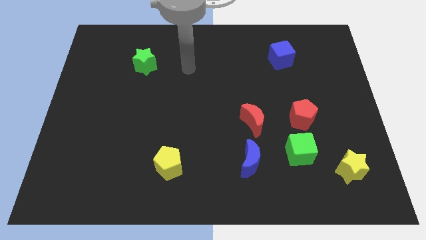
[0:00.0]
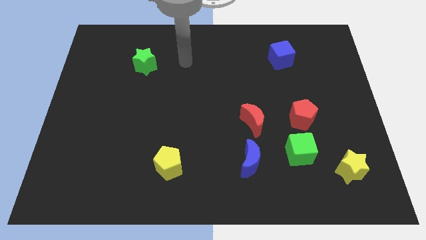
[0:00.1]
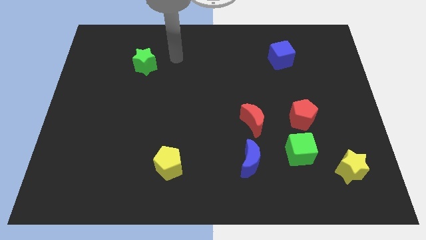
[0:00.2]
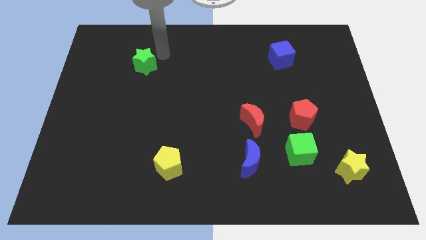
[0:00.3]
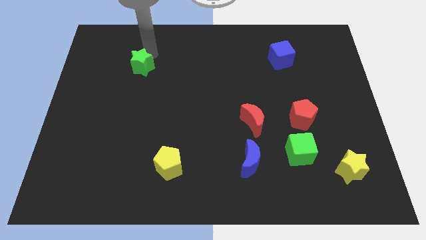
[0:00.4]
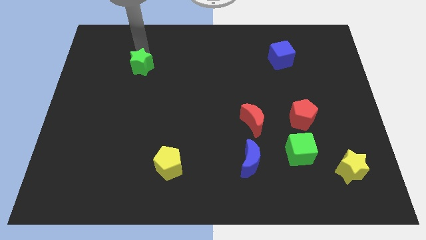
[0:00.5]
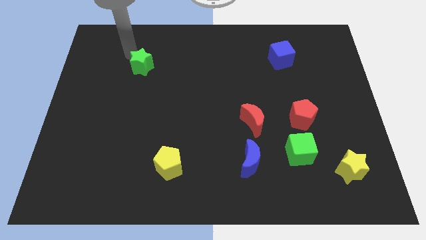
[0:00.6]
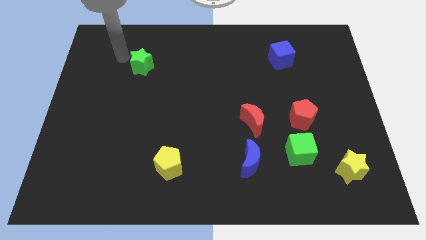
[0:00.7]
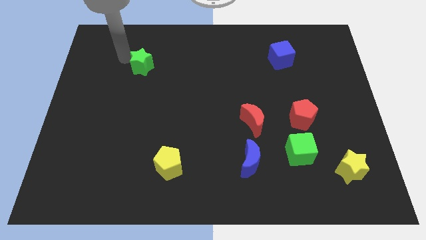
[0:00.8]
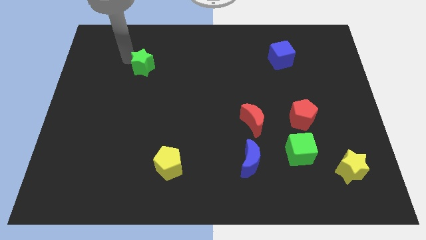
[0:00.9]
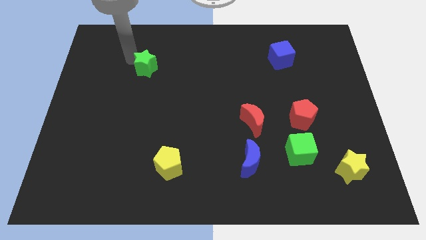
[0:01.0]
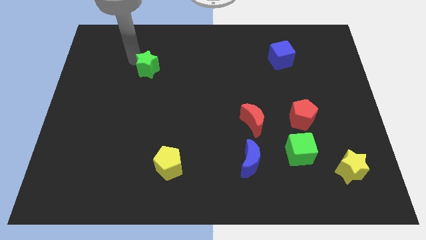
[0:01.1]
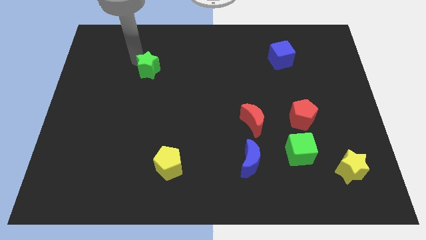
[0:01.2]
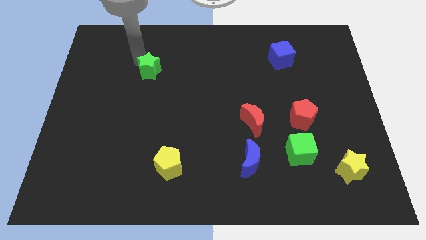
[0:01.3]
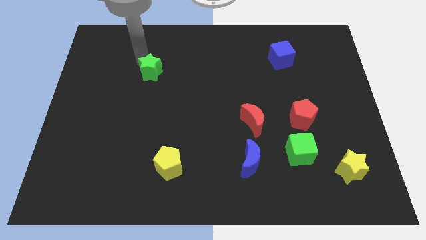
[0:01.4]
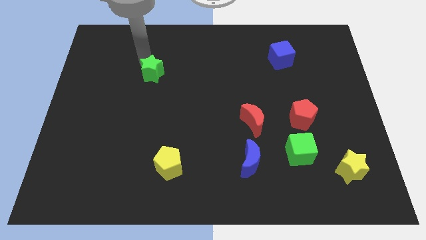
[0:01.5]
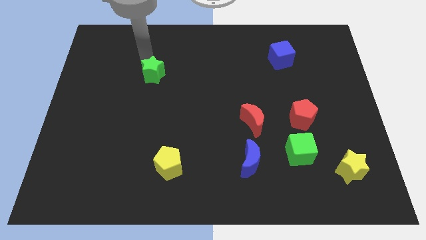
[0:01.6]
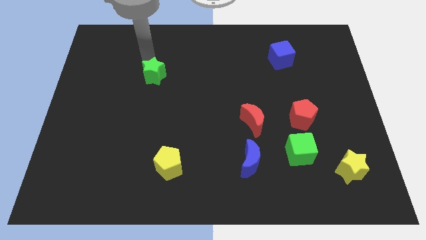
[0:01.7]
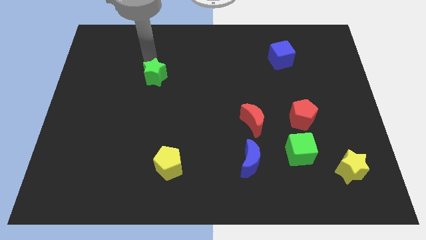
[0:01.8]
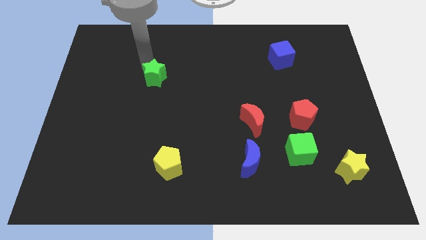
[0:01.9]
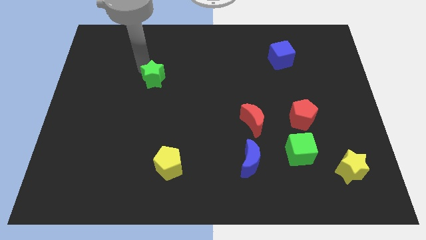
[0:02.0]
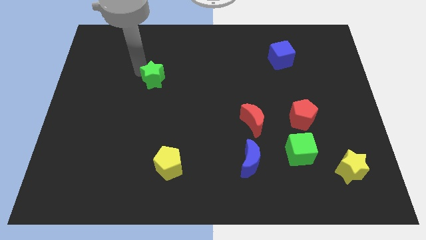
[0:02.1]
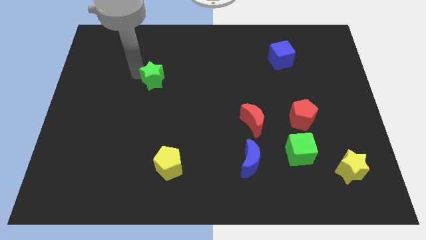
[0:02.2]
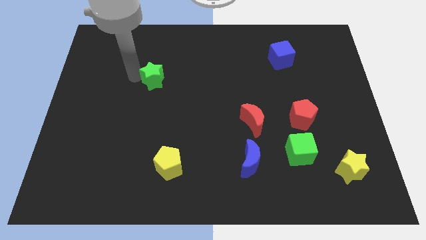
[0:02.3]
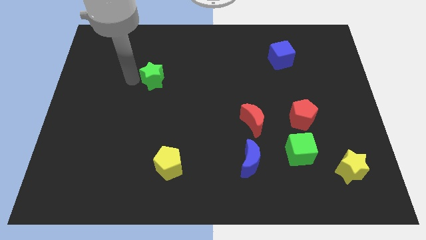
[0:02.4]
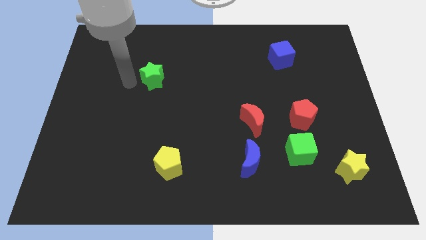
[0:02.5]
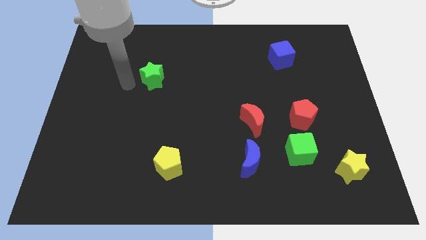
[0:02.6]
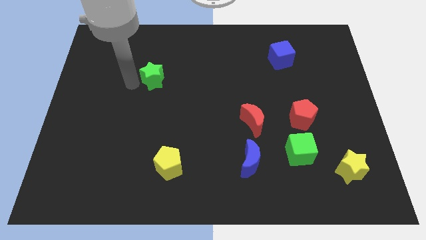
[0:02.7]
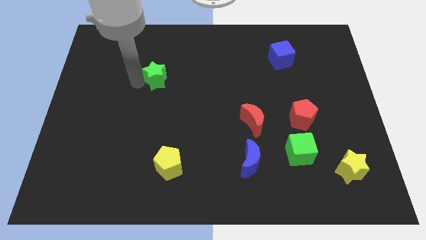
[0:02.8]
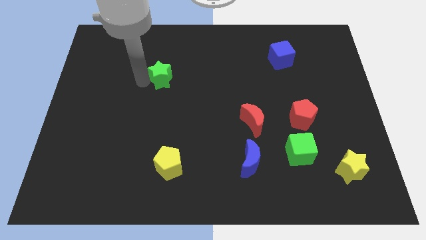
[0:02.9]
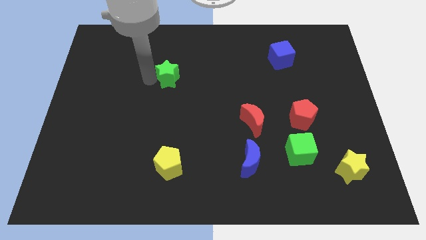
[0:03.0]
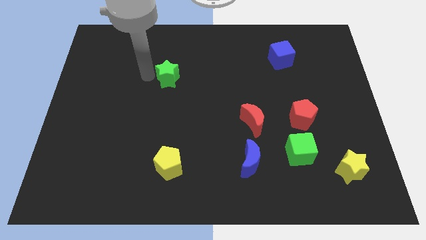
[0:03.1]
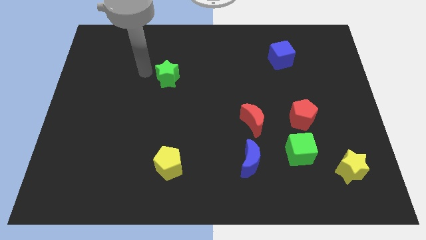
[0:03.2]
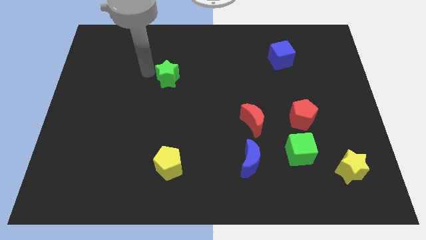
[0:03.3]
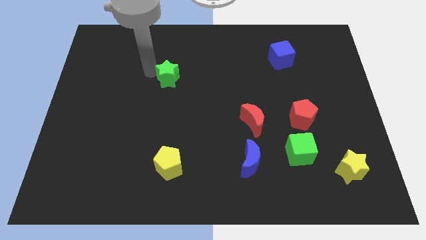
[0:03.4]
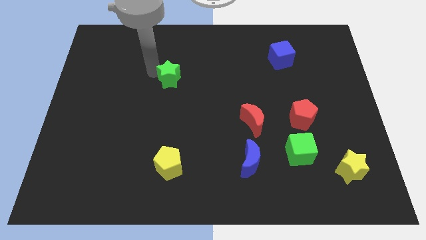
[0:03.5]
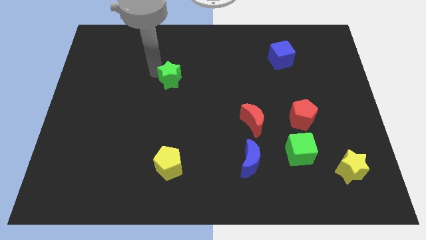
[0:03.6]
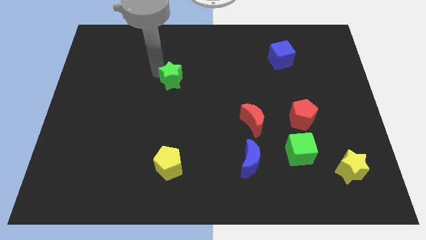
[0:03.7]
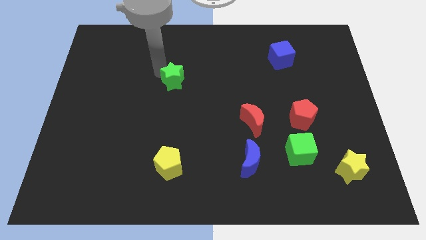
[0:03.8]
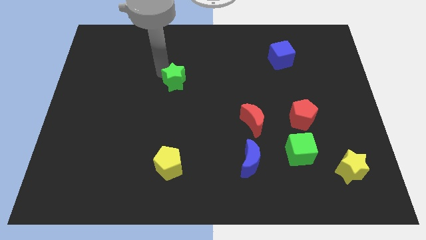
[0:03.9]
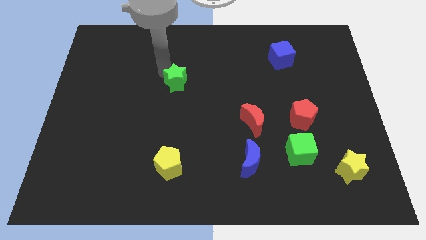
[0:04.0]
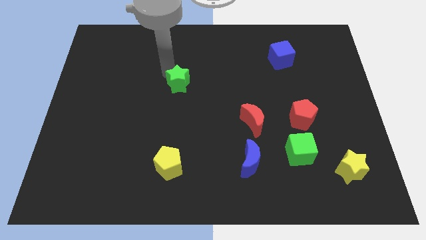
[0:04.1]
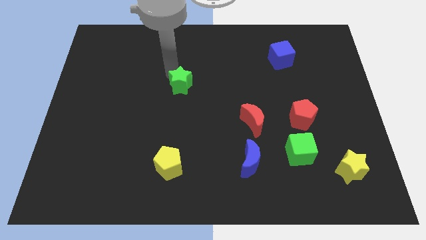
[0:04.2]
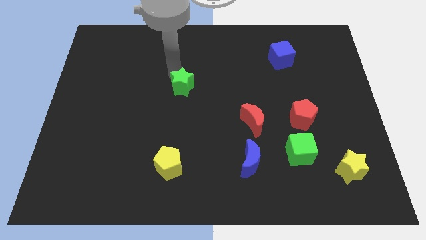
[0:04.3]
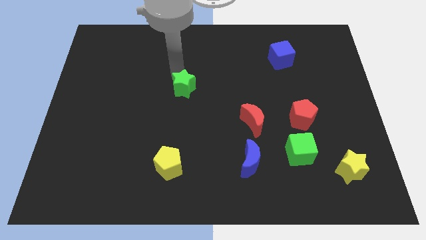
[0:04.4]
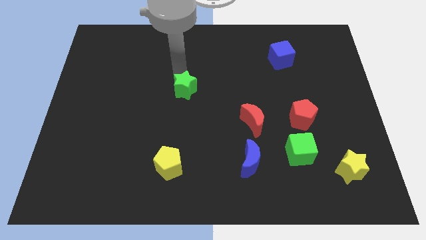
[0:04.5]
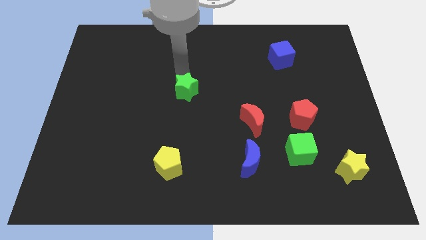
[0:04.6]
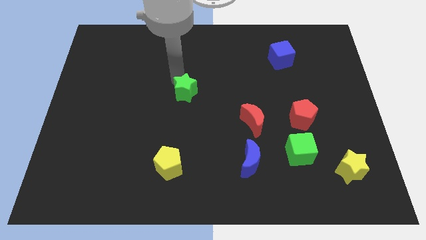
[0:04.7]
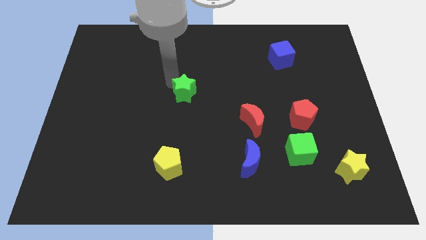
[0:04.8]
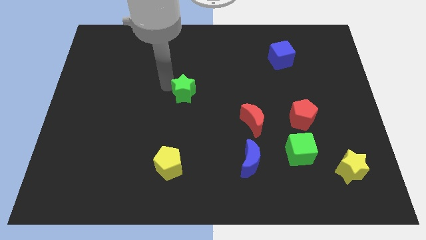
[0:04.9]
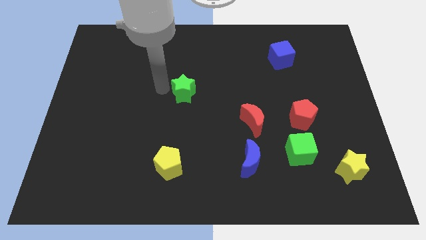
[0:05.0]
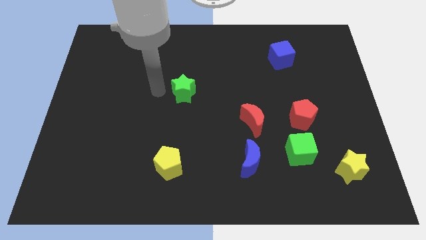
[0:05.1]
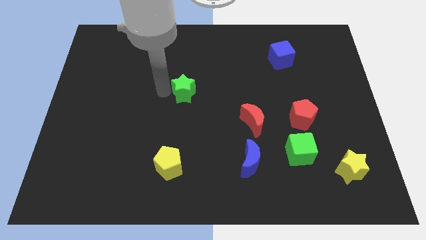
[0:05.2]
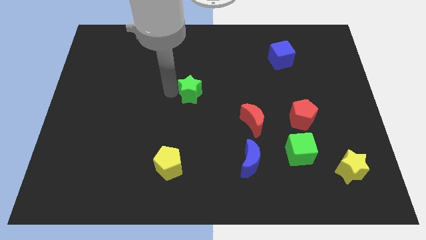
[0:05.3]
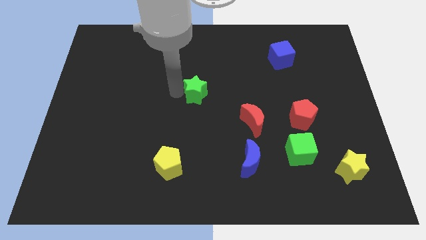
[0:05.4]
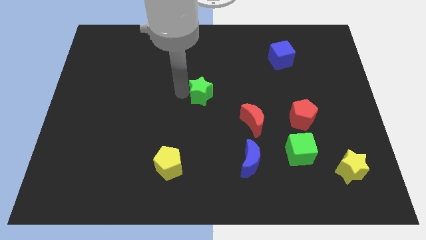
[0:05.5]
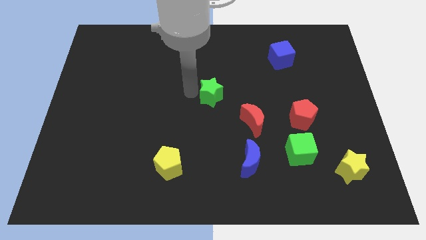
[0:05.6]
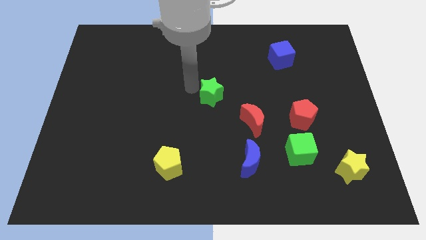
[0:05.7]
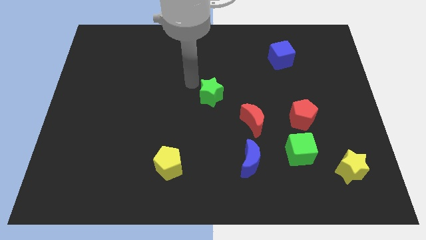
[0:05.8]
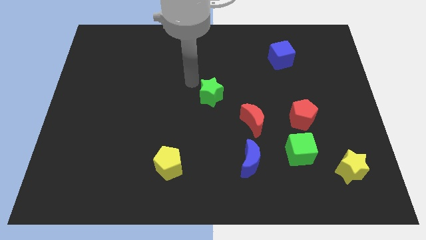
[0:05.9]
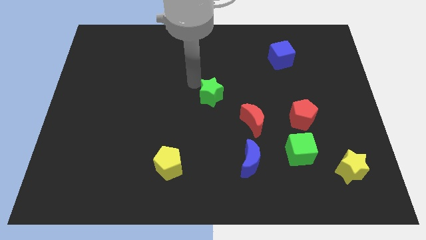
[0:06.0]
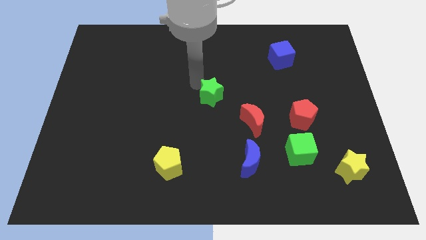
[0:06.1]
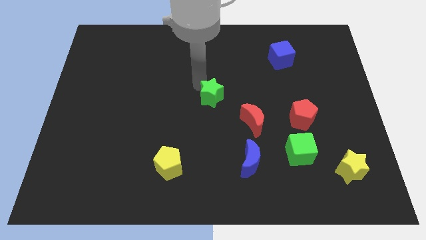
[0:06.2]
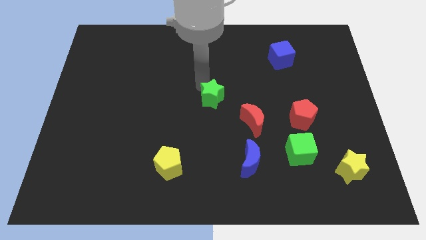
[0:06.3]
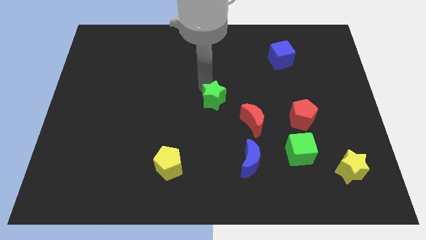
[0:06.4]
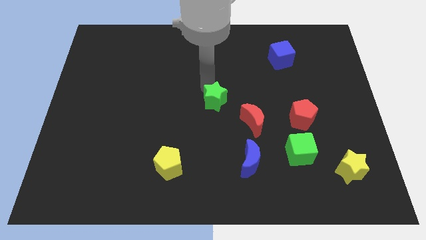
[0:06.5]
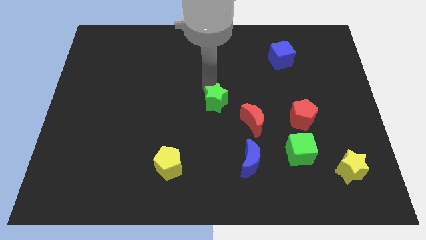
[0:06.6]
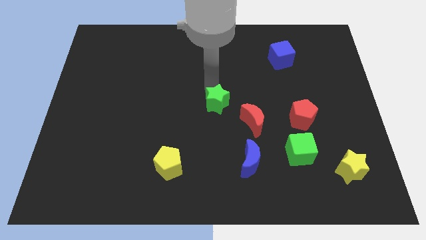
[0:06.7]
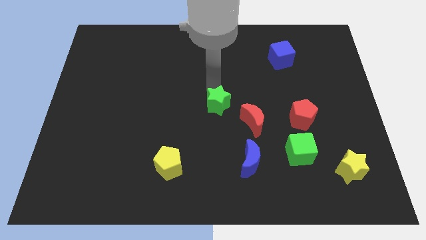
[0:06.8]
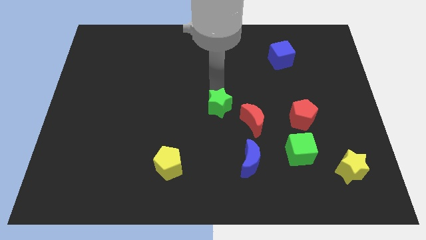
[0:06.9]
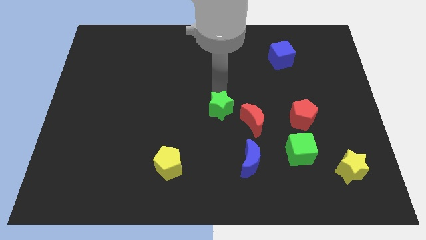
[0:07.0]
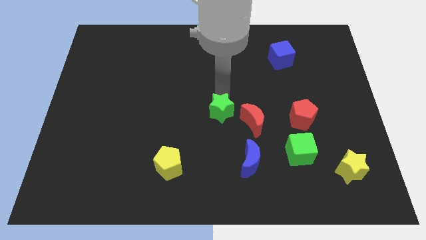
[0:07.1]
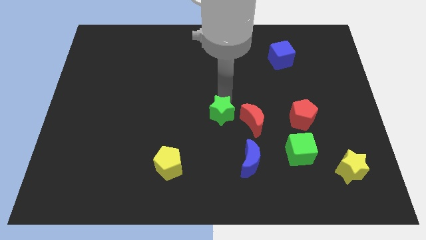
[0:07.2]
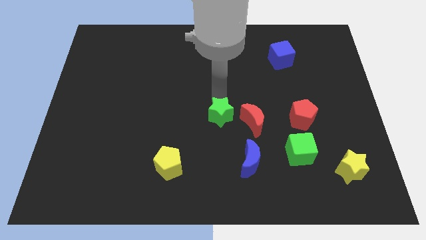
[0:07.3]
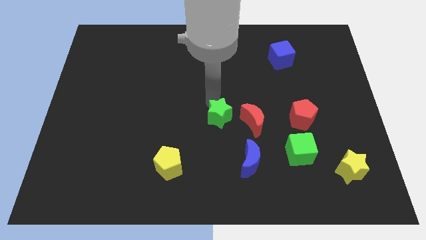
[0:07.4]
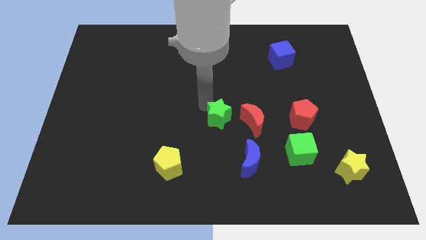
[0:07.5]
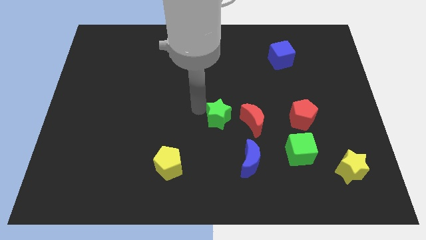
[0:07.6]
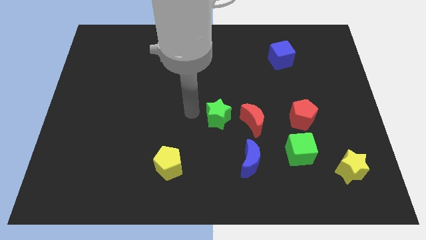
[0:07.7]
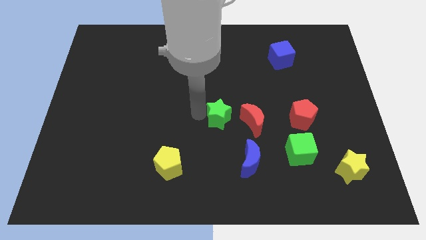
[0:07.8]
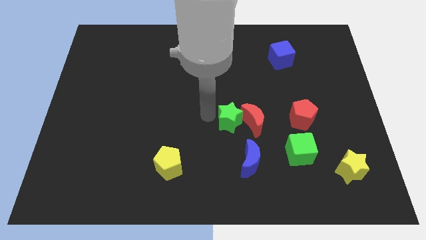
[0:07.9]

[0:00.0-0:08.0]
slide the green star next to the red moon

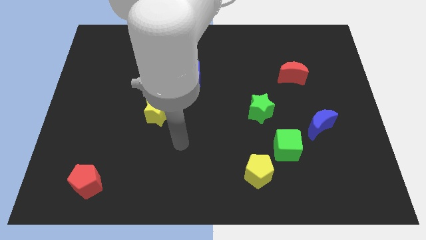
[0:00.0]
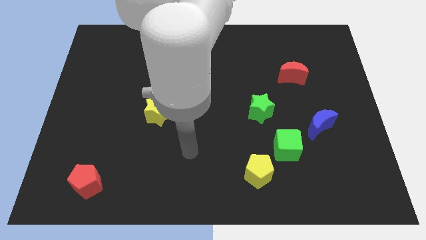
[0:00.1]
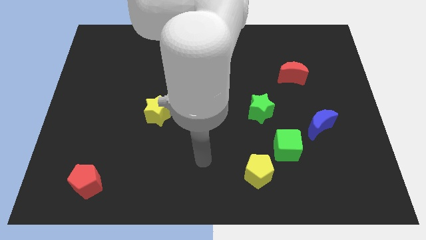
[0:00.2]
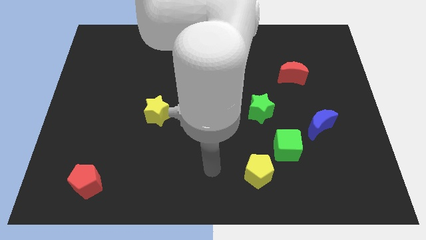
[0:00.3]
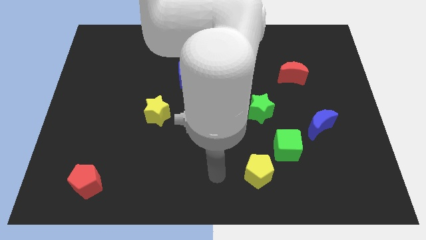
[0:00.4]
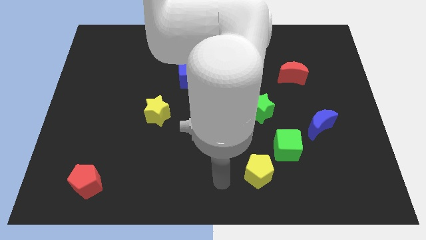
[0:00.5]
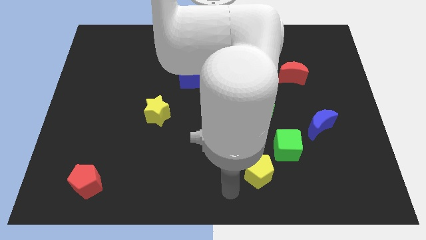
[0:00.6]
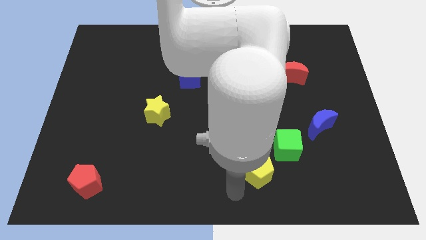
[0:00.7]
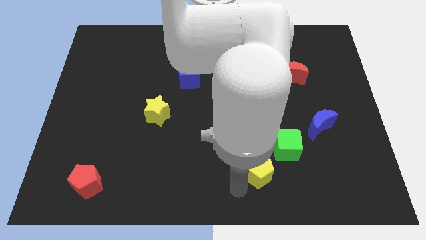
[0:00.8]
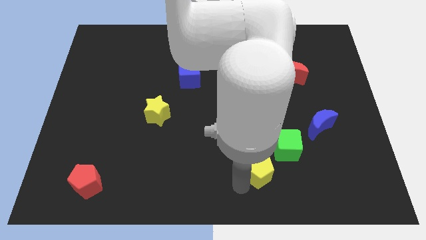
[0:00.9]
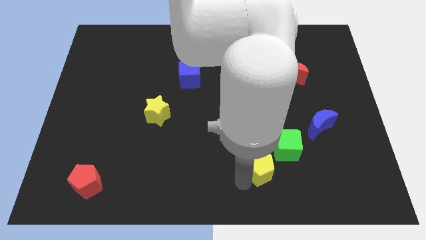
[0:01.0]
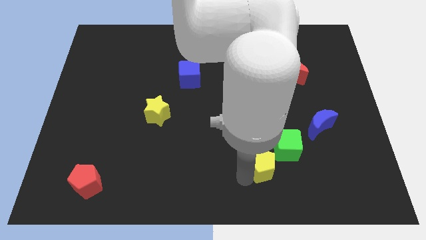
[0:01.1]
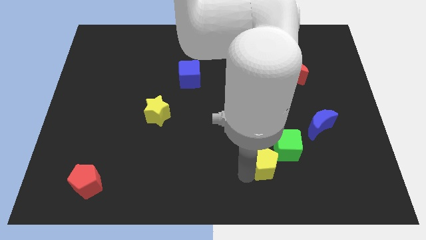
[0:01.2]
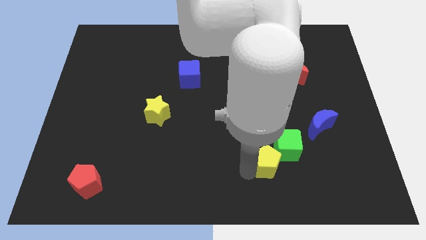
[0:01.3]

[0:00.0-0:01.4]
put the yellow pentagon to the green cube
